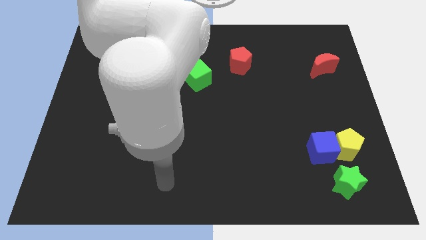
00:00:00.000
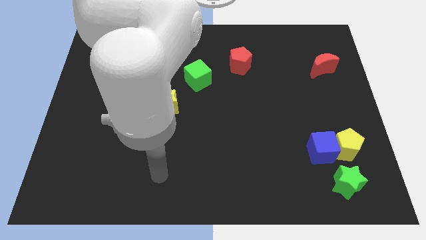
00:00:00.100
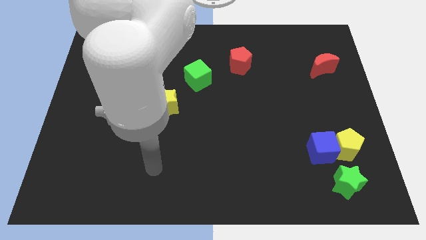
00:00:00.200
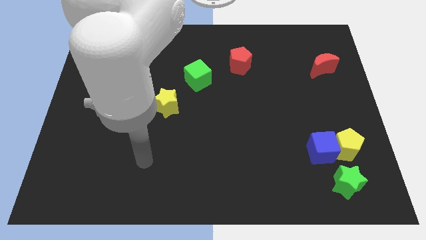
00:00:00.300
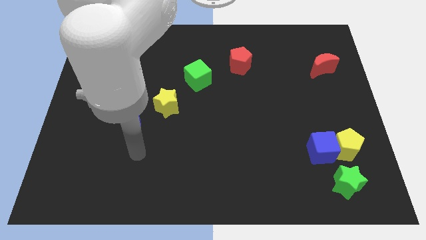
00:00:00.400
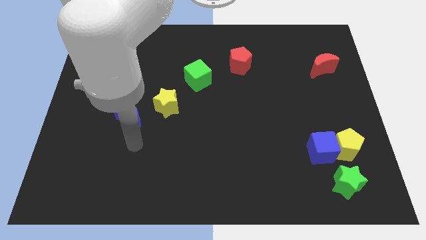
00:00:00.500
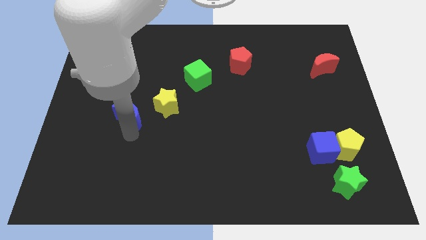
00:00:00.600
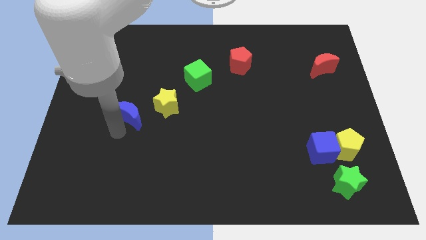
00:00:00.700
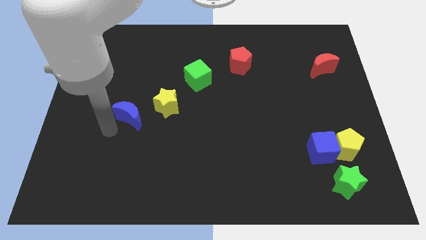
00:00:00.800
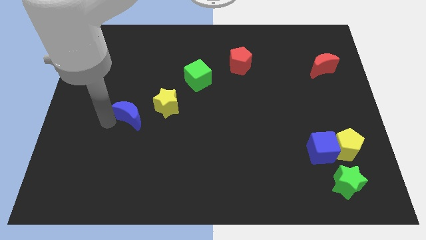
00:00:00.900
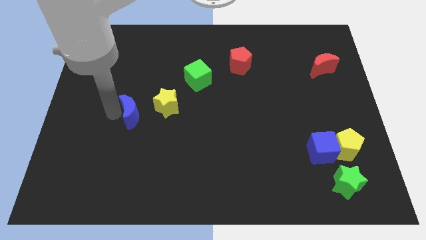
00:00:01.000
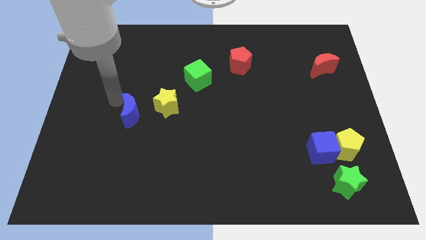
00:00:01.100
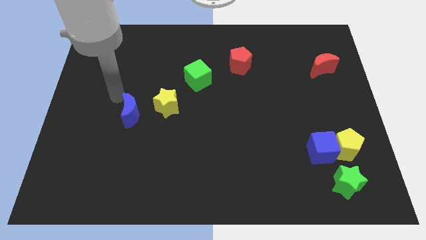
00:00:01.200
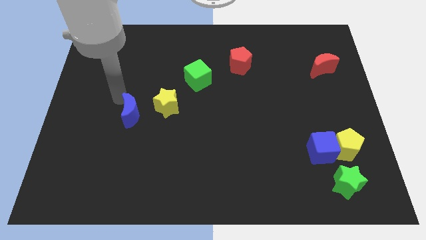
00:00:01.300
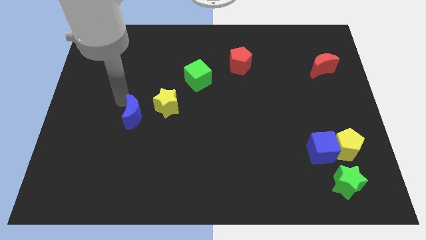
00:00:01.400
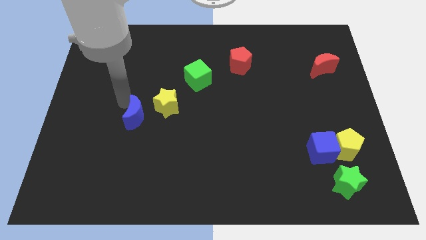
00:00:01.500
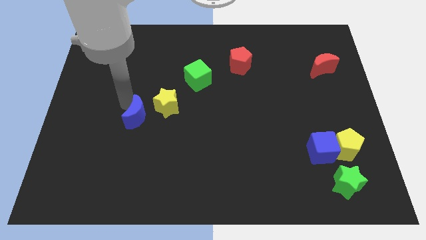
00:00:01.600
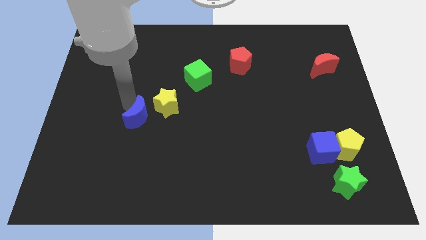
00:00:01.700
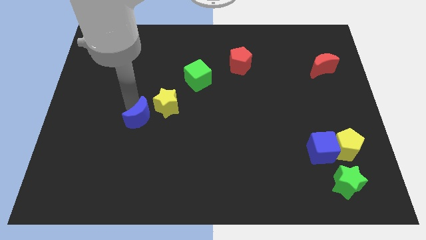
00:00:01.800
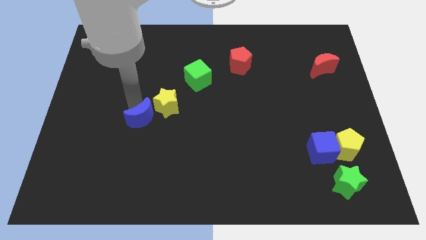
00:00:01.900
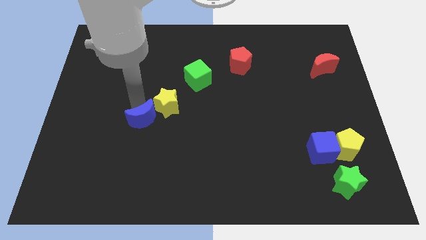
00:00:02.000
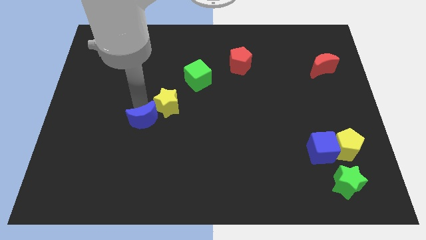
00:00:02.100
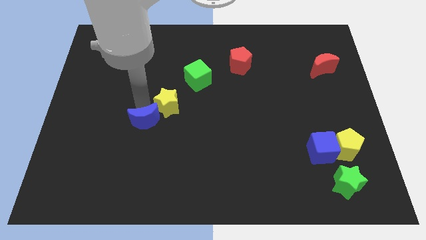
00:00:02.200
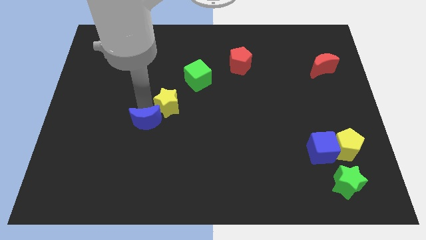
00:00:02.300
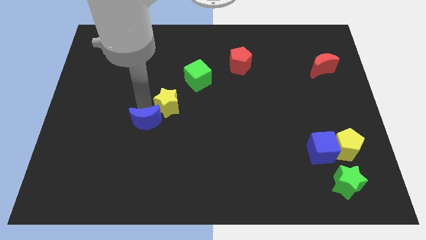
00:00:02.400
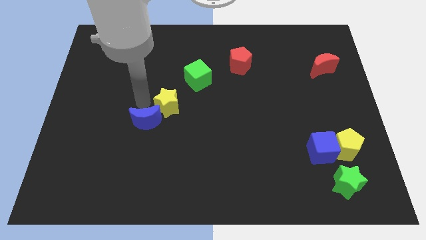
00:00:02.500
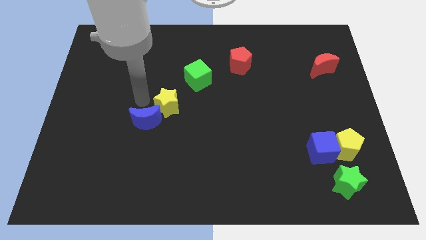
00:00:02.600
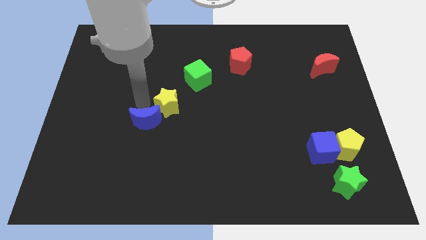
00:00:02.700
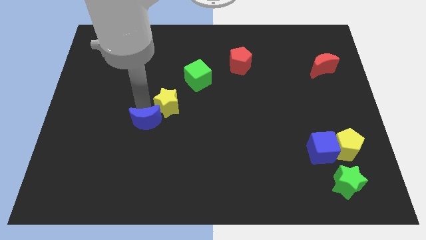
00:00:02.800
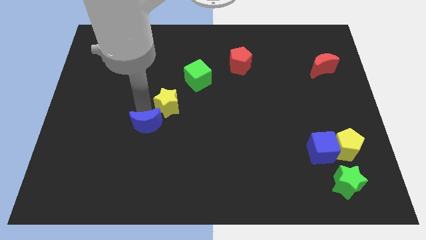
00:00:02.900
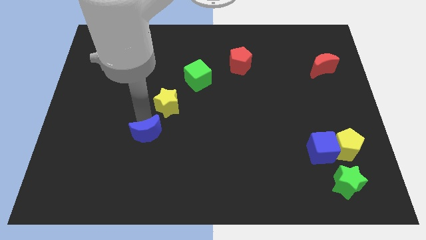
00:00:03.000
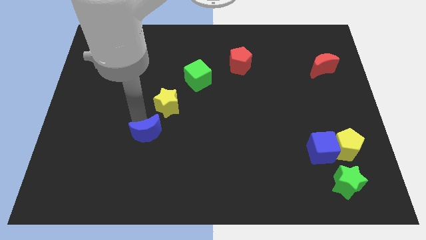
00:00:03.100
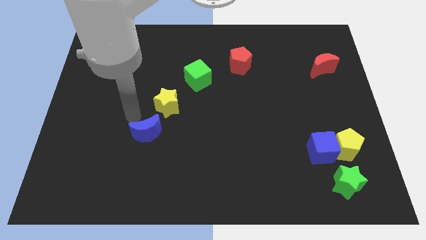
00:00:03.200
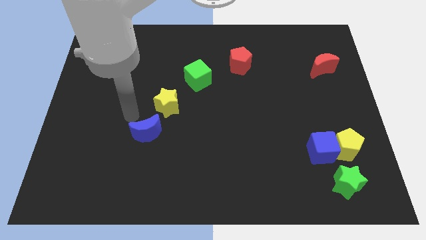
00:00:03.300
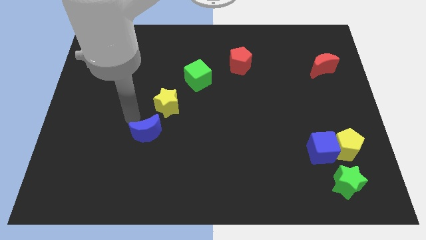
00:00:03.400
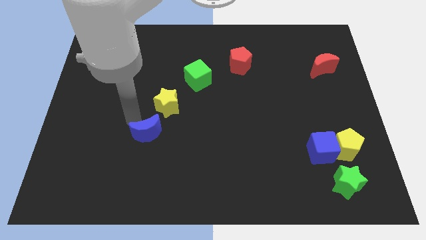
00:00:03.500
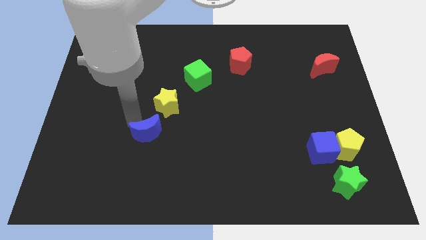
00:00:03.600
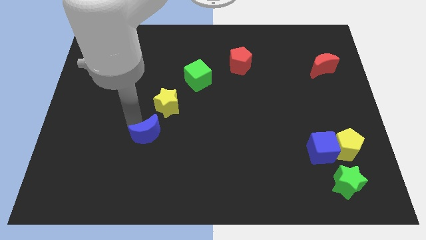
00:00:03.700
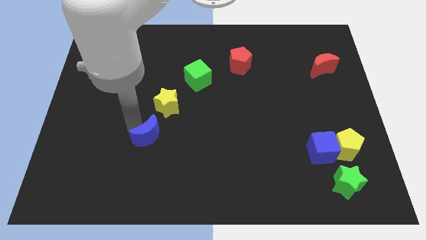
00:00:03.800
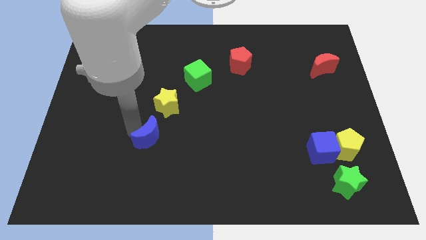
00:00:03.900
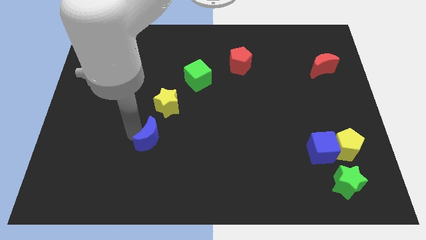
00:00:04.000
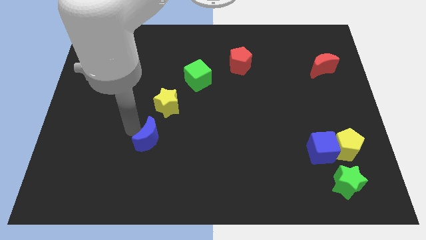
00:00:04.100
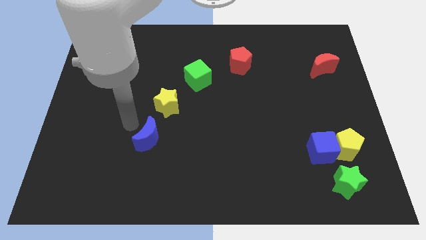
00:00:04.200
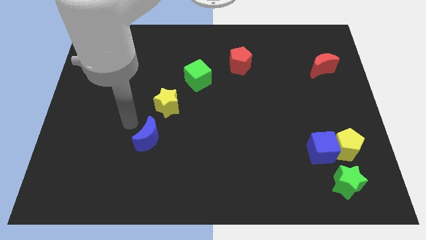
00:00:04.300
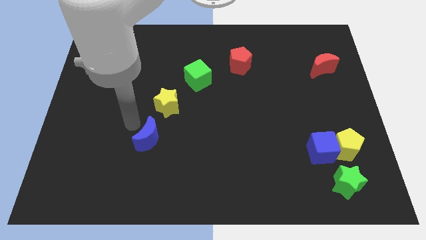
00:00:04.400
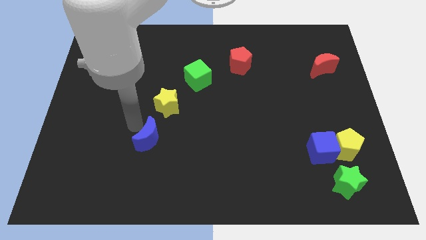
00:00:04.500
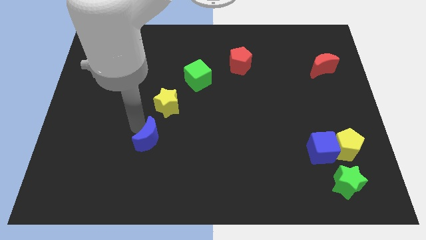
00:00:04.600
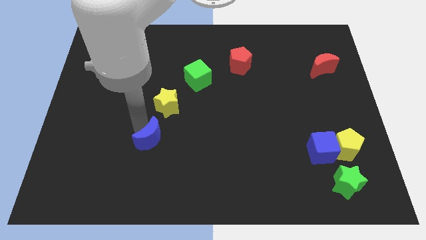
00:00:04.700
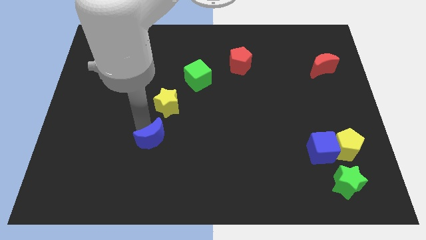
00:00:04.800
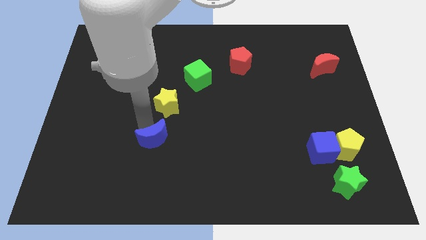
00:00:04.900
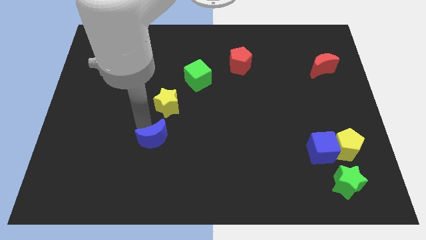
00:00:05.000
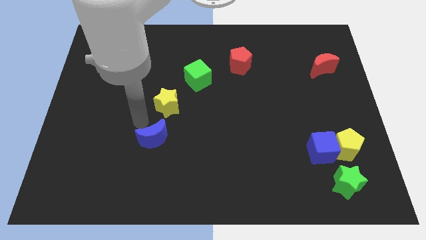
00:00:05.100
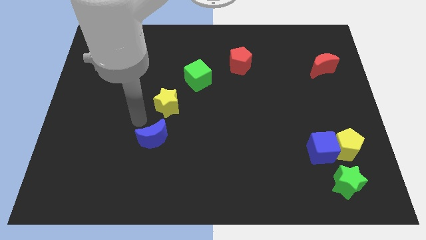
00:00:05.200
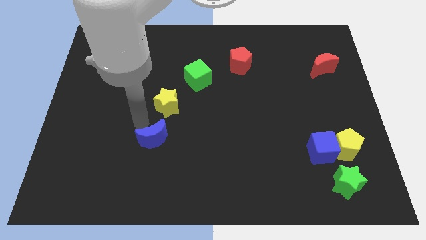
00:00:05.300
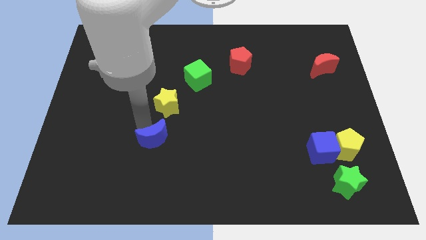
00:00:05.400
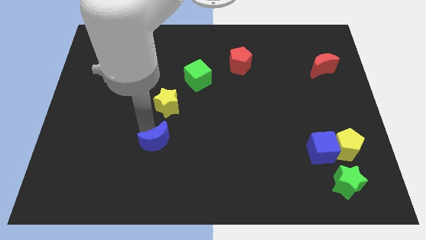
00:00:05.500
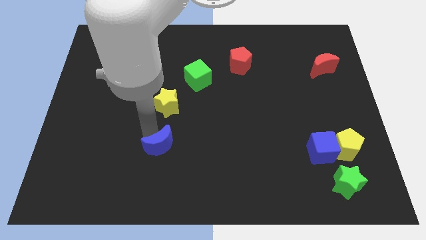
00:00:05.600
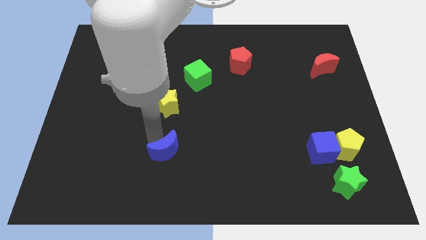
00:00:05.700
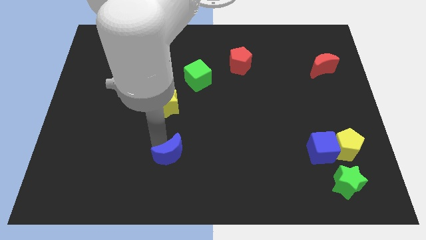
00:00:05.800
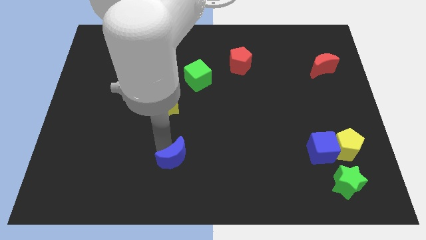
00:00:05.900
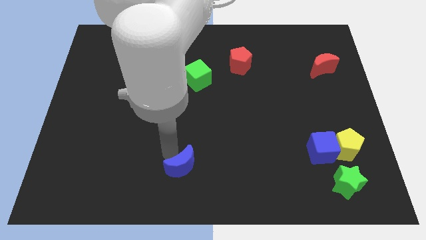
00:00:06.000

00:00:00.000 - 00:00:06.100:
push the blue moon to the bottom

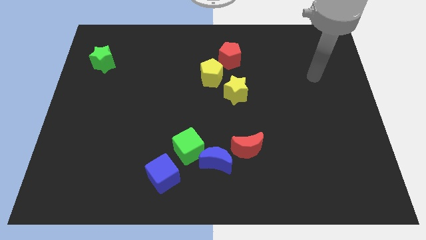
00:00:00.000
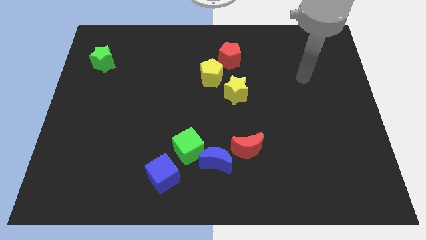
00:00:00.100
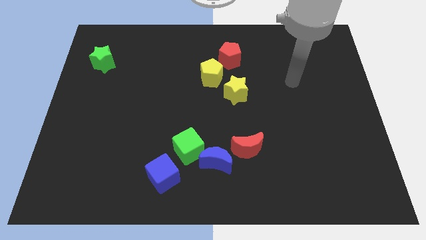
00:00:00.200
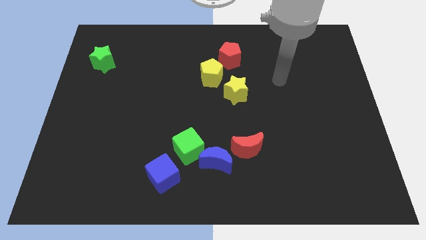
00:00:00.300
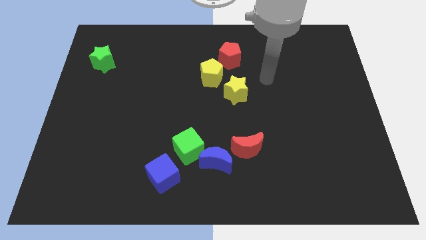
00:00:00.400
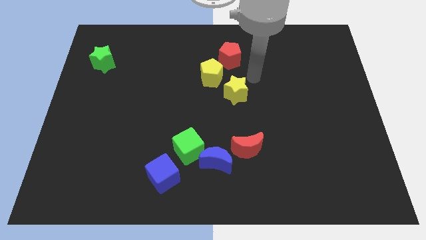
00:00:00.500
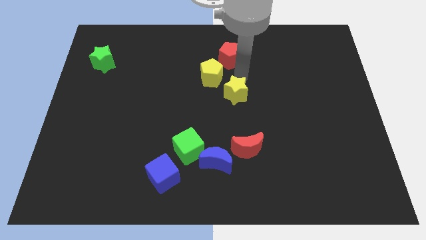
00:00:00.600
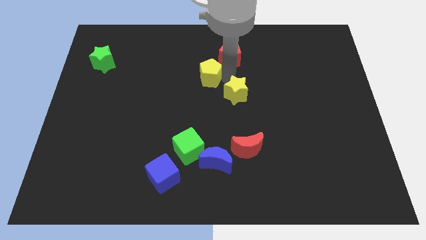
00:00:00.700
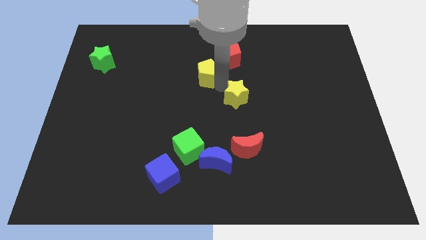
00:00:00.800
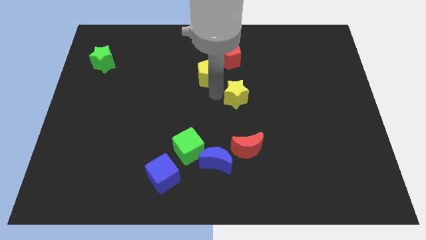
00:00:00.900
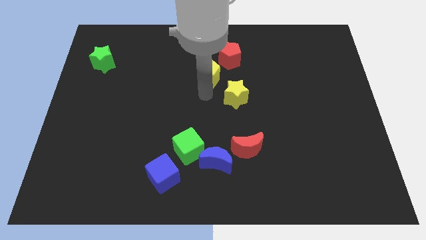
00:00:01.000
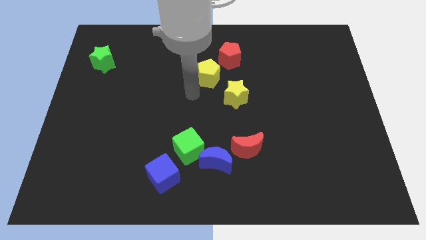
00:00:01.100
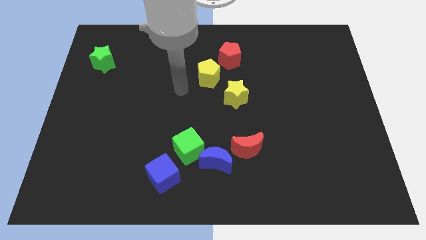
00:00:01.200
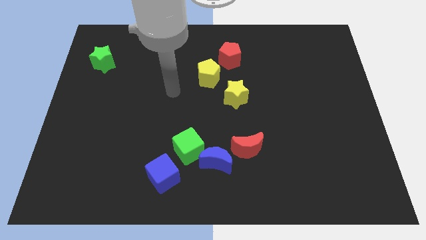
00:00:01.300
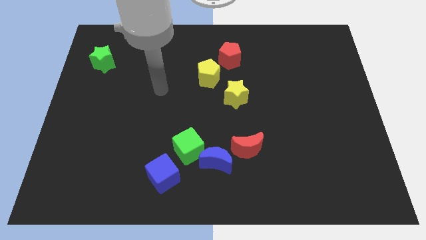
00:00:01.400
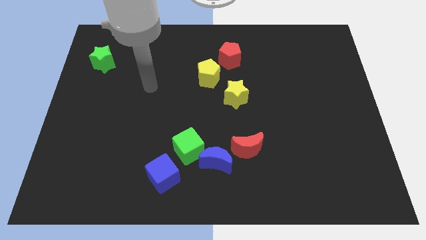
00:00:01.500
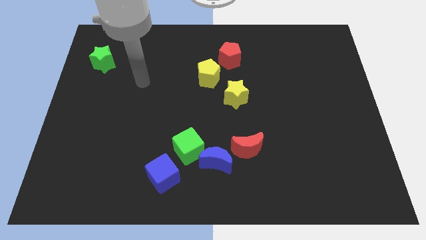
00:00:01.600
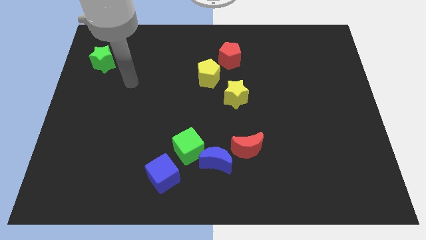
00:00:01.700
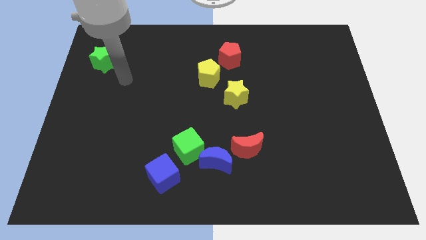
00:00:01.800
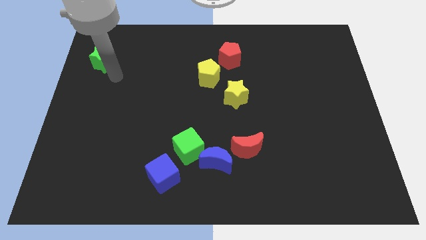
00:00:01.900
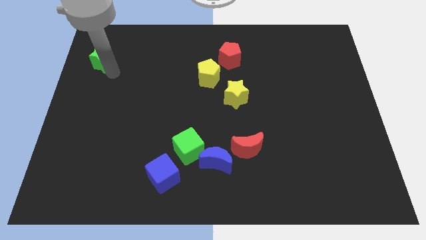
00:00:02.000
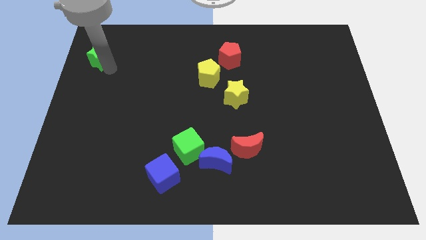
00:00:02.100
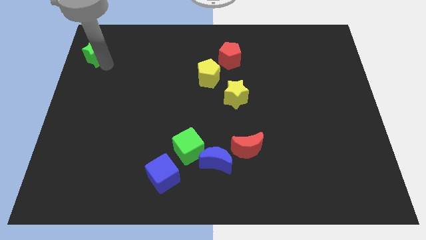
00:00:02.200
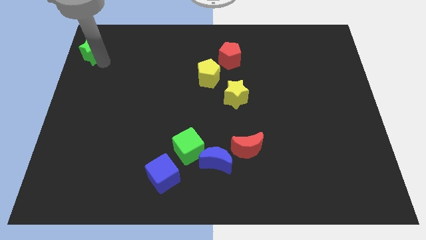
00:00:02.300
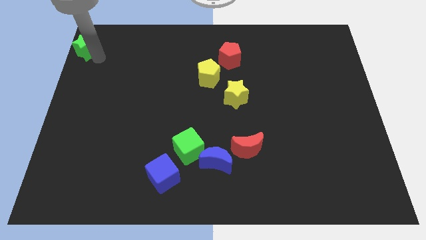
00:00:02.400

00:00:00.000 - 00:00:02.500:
move the green star to the top left of the board
